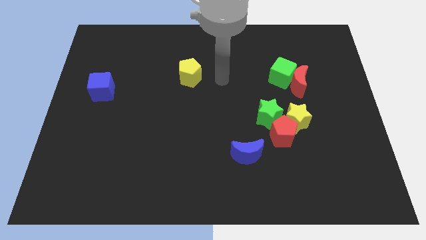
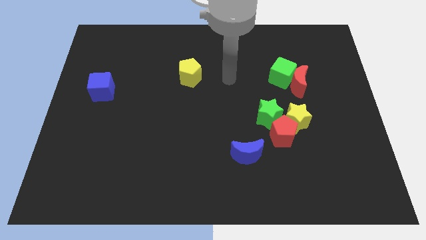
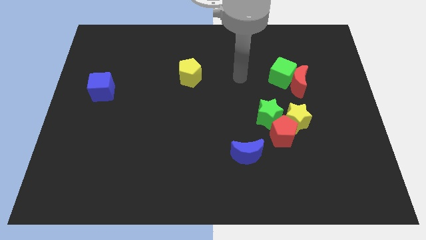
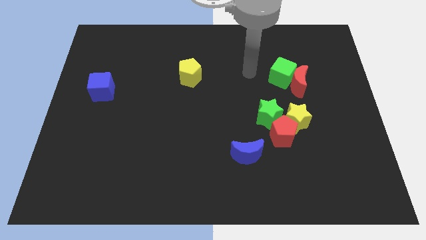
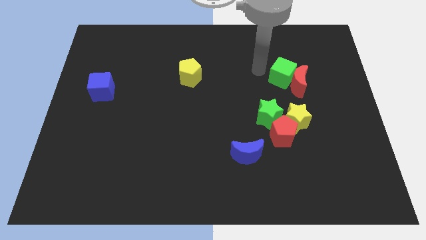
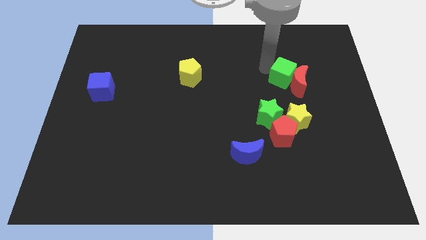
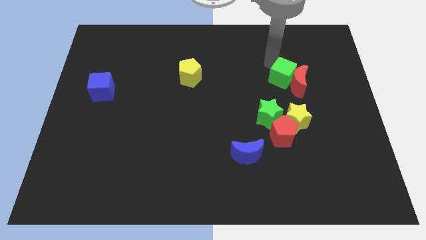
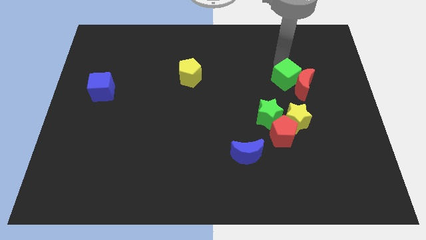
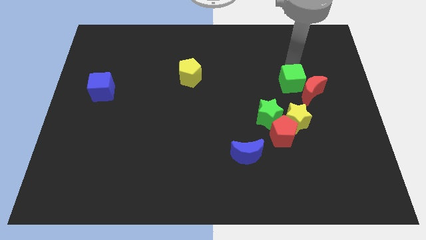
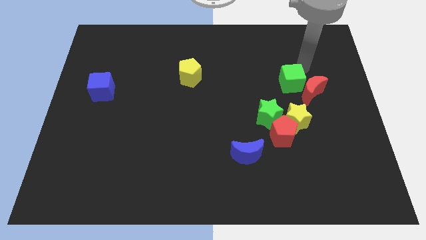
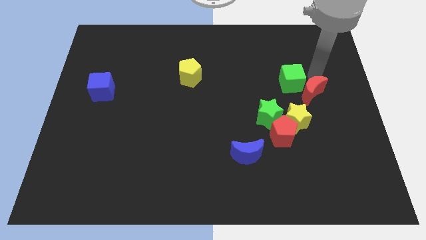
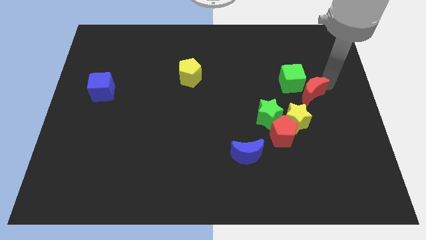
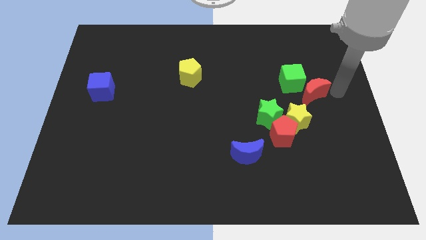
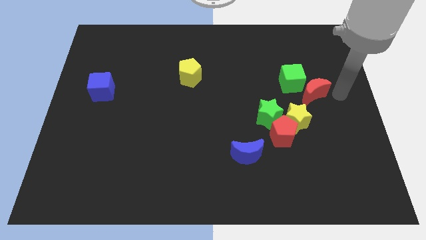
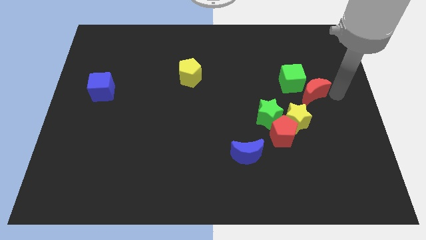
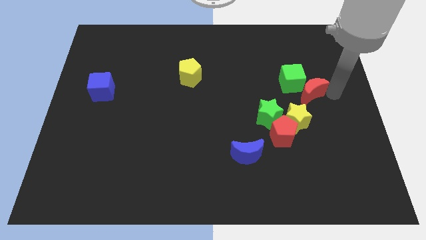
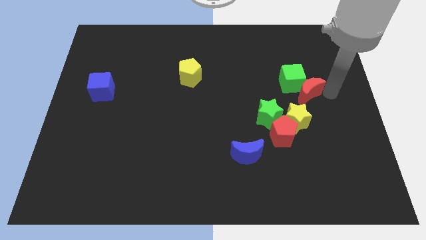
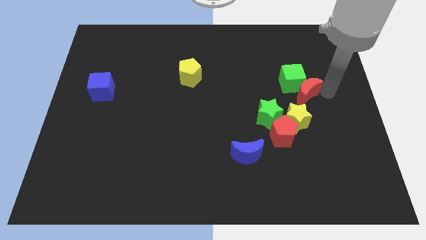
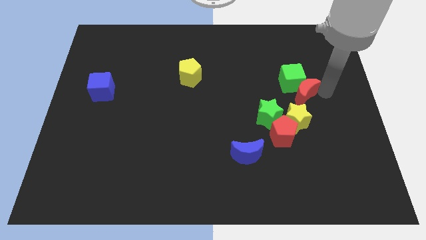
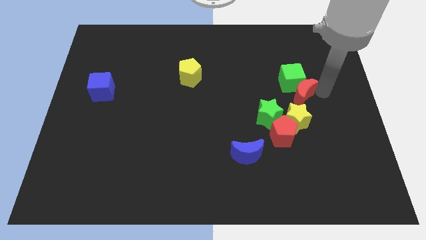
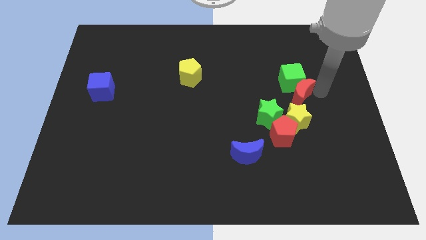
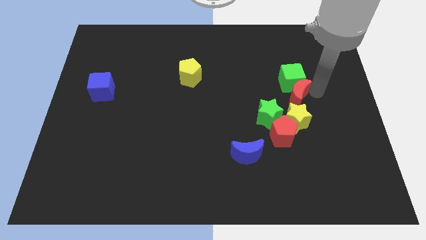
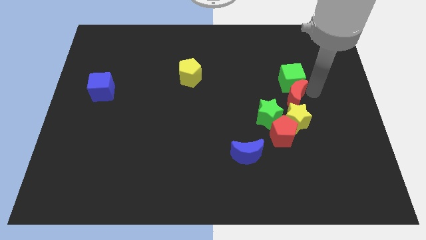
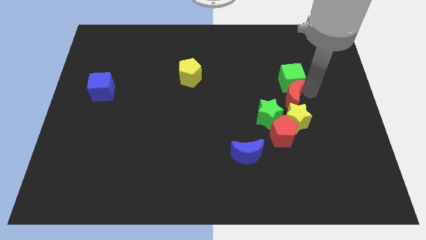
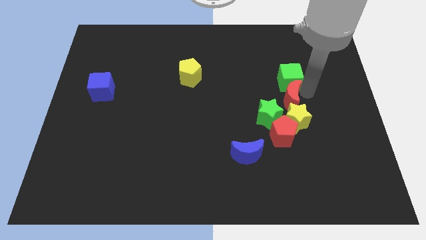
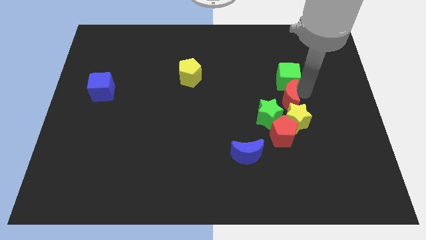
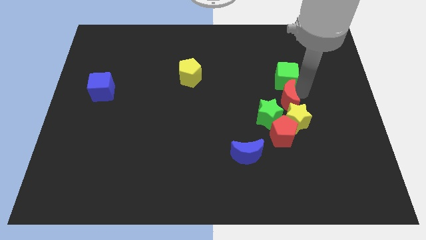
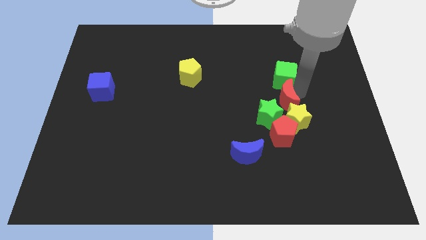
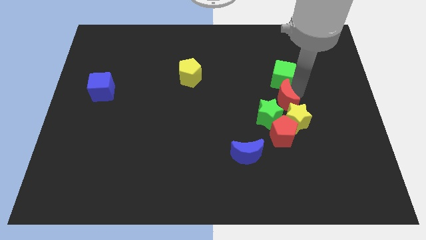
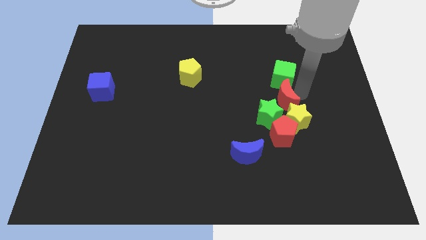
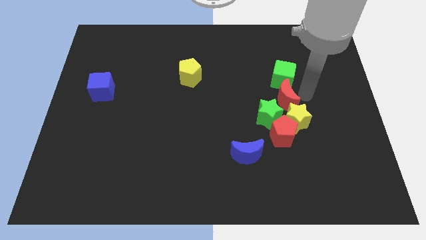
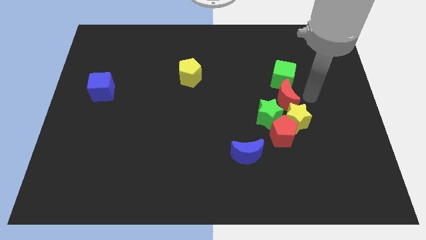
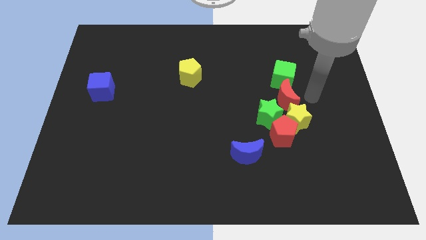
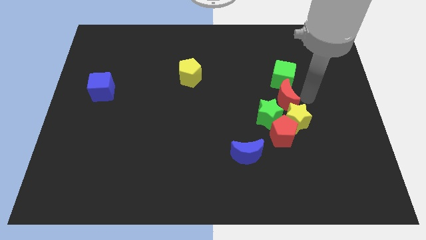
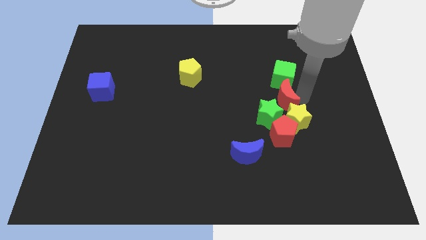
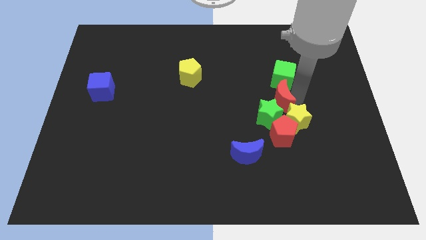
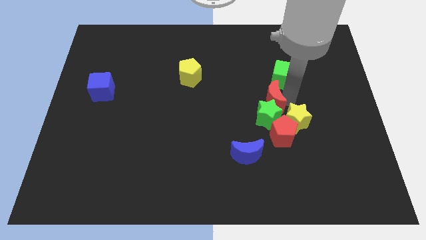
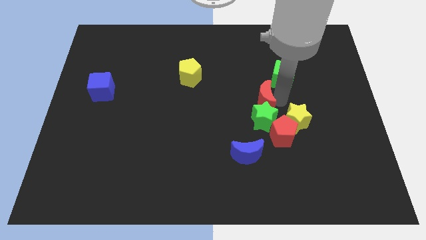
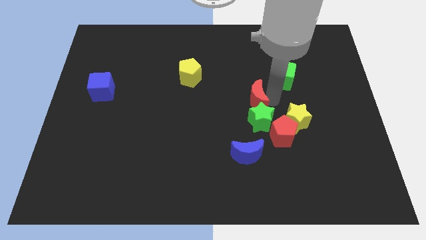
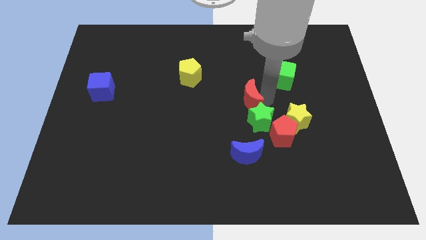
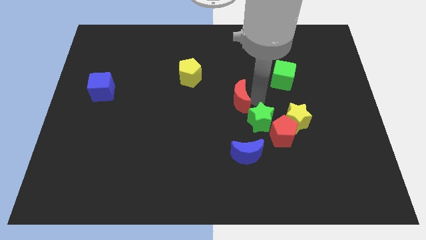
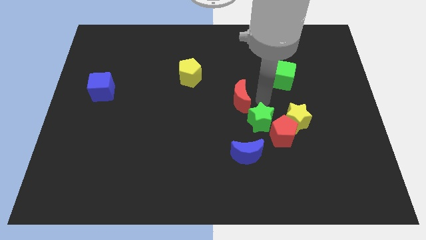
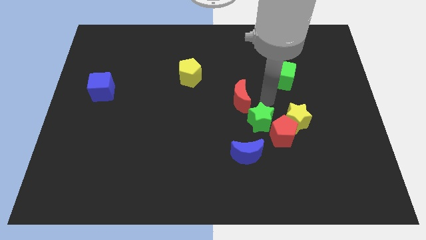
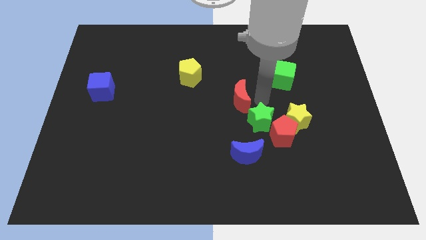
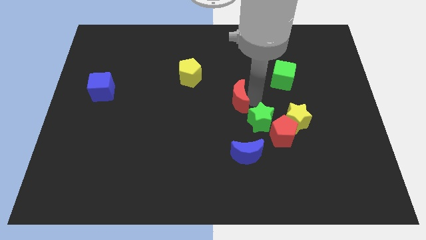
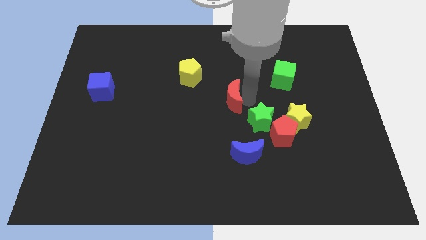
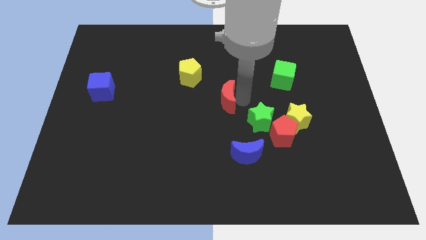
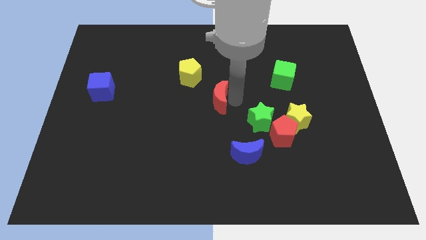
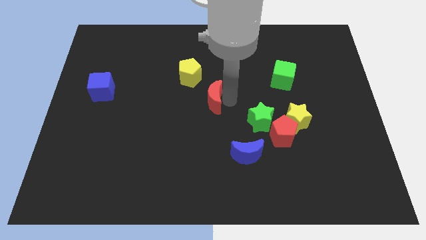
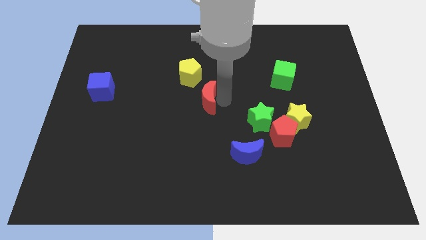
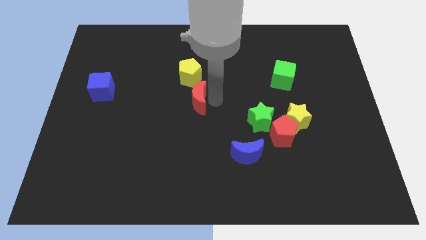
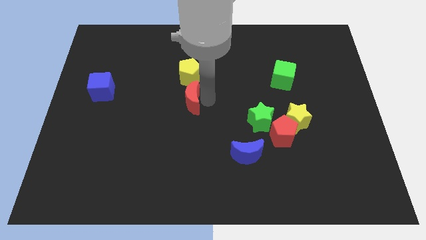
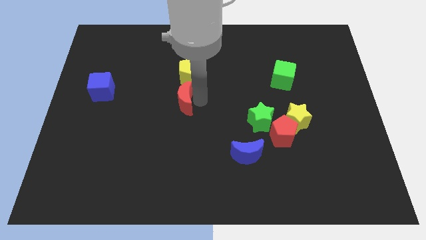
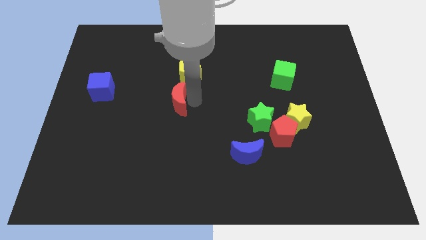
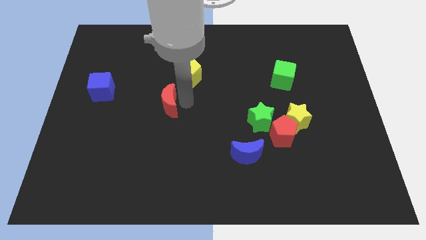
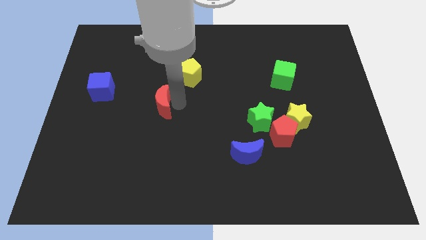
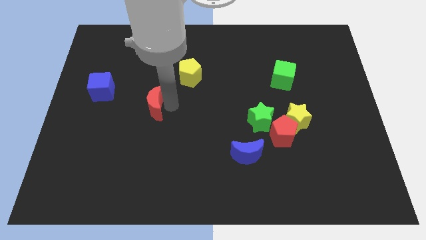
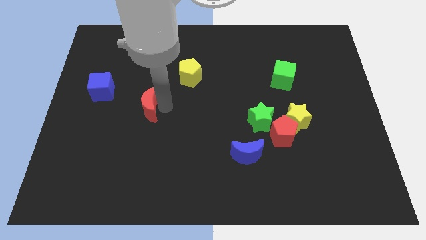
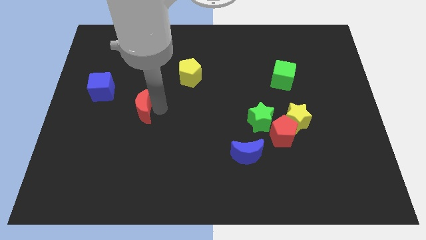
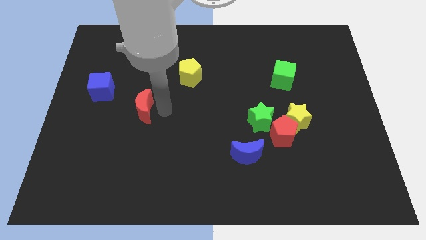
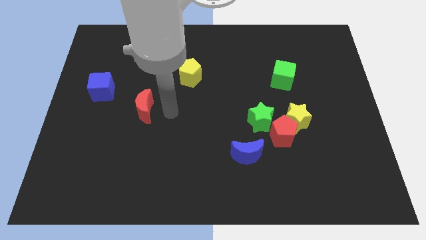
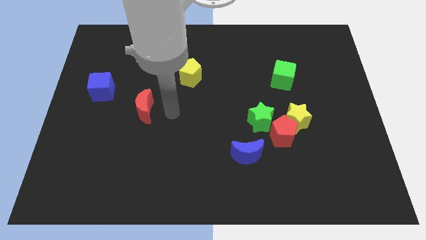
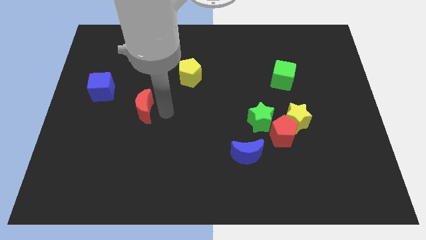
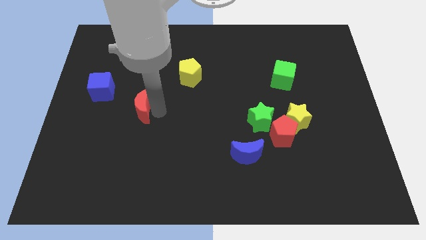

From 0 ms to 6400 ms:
put the red moon to the bottom right of the blue cube
